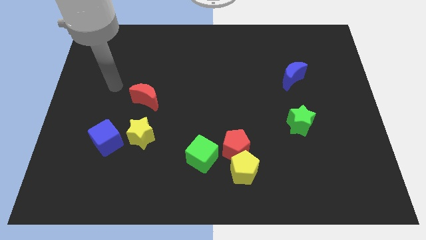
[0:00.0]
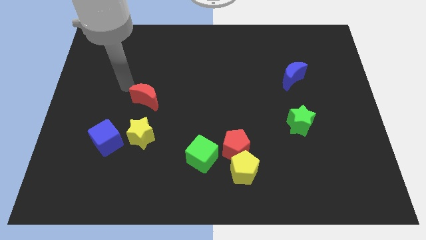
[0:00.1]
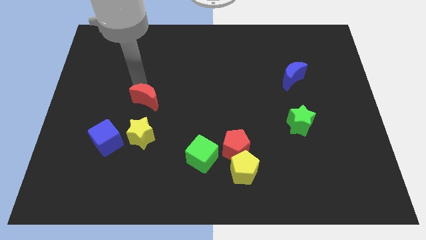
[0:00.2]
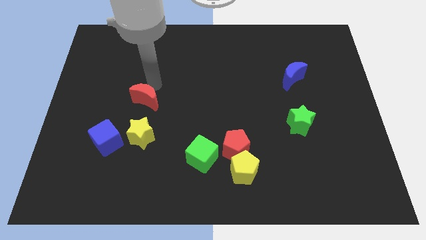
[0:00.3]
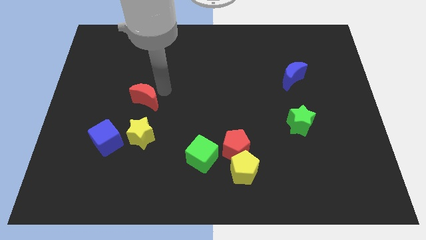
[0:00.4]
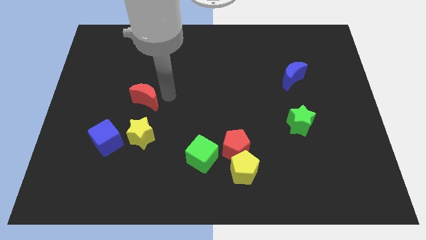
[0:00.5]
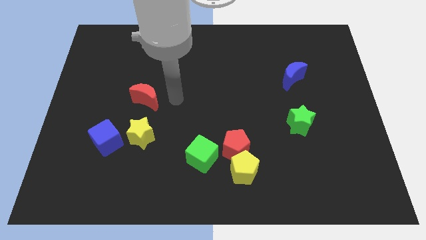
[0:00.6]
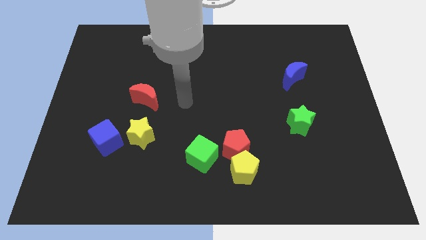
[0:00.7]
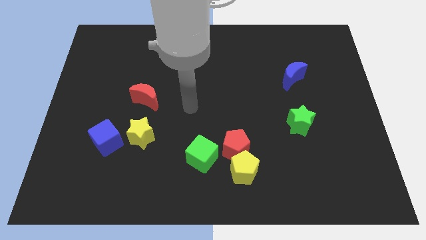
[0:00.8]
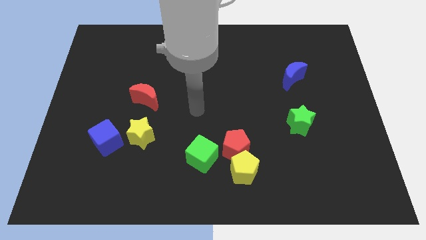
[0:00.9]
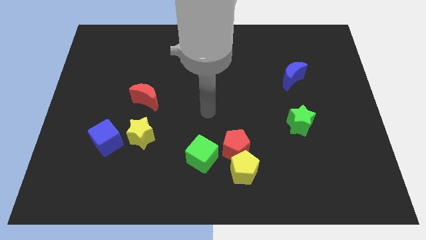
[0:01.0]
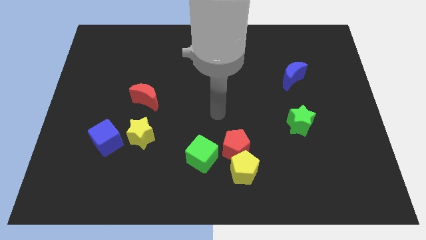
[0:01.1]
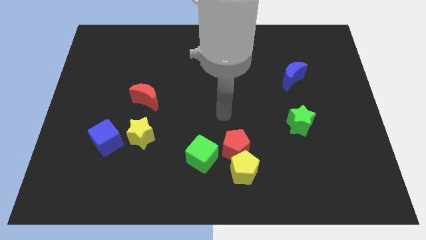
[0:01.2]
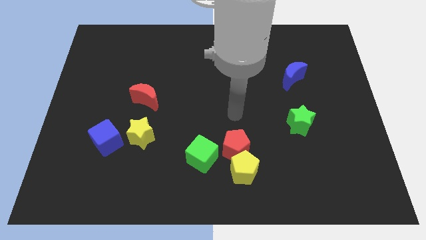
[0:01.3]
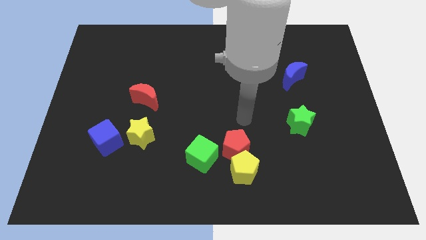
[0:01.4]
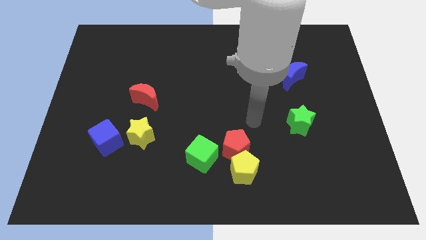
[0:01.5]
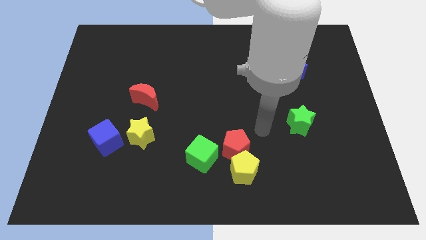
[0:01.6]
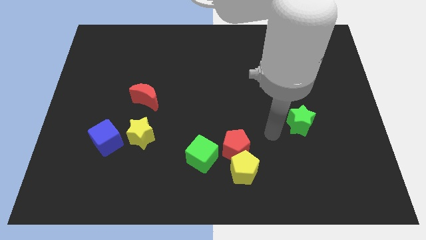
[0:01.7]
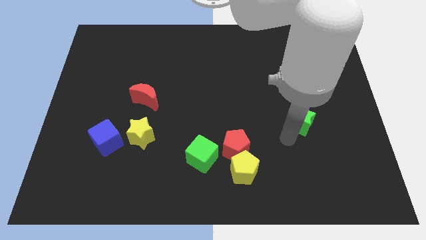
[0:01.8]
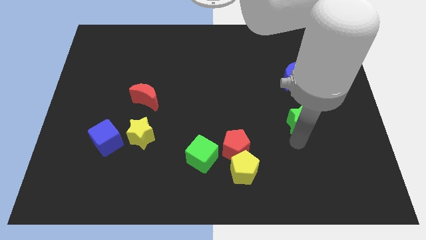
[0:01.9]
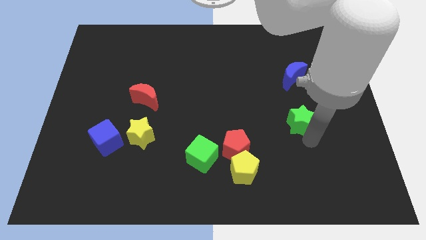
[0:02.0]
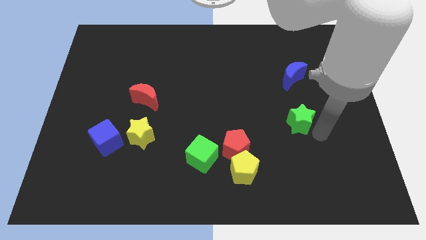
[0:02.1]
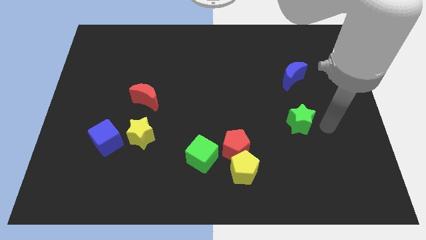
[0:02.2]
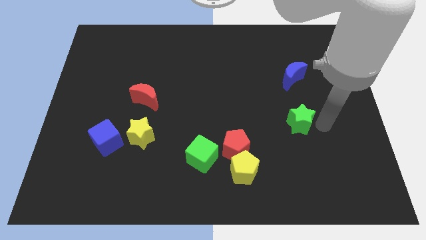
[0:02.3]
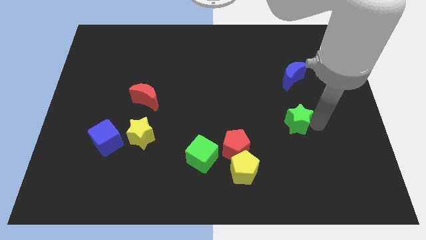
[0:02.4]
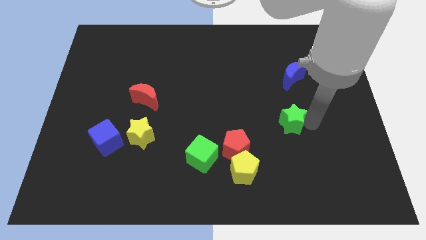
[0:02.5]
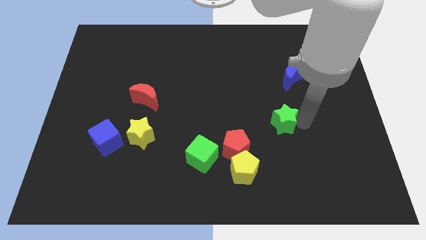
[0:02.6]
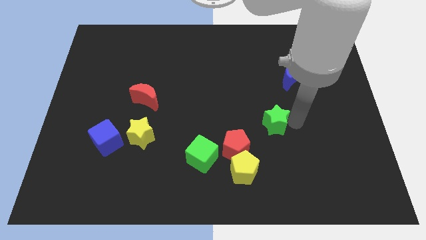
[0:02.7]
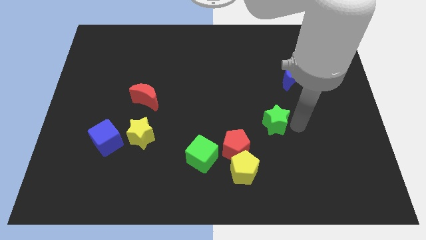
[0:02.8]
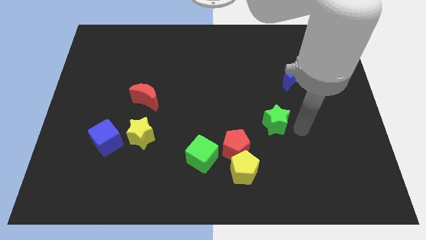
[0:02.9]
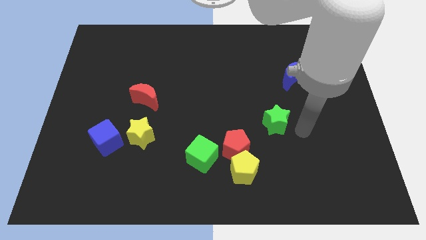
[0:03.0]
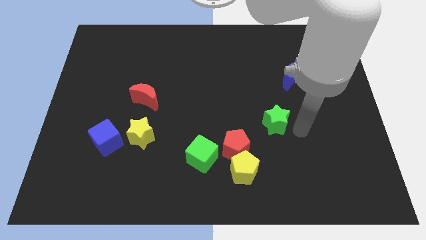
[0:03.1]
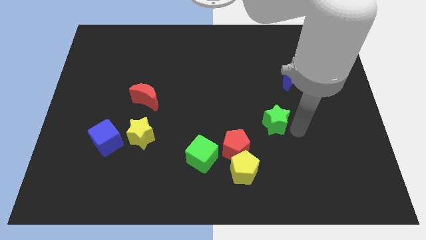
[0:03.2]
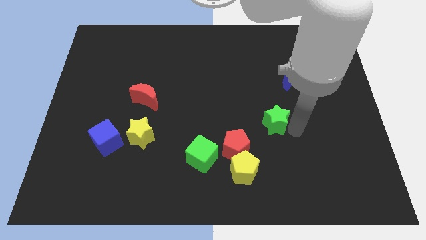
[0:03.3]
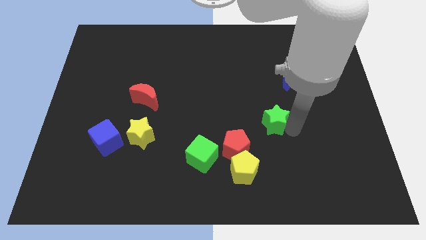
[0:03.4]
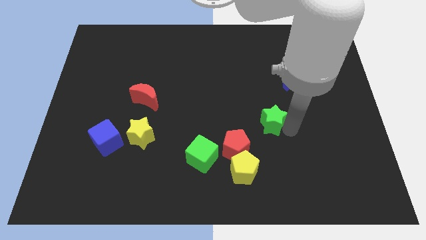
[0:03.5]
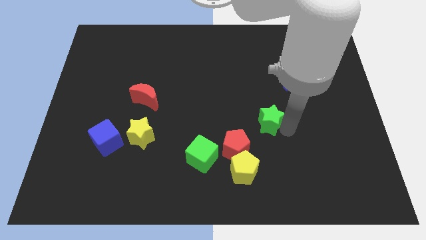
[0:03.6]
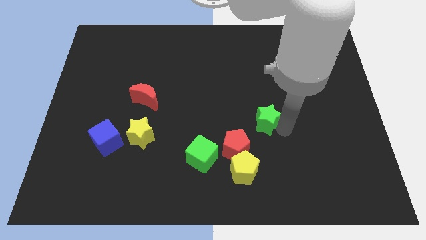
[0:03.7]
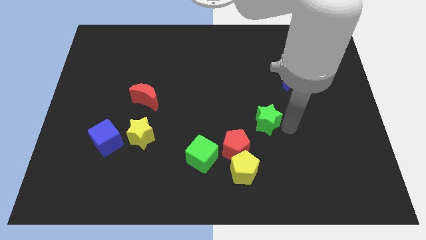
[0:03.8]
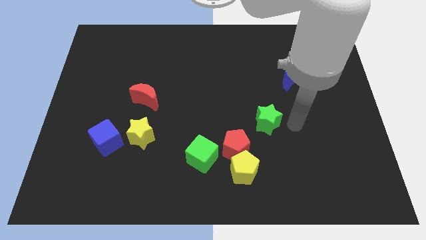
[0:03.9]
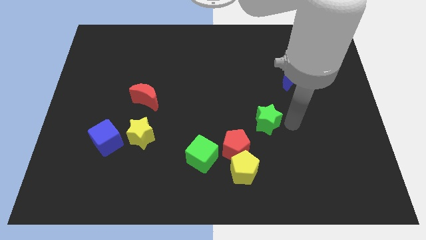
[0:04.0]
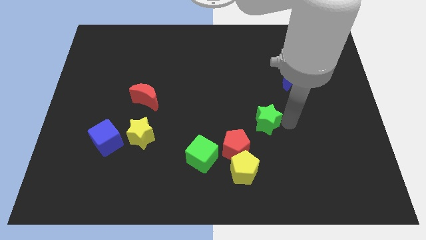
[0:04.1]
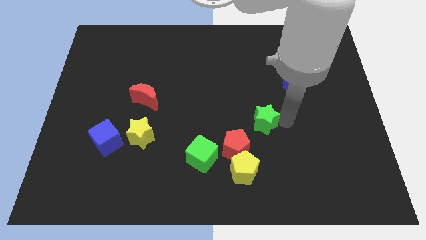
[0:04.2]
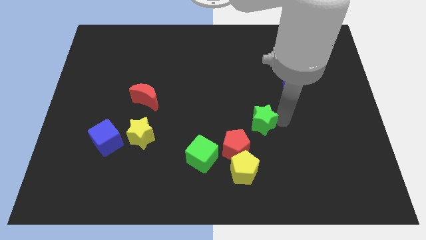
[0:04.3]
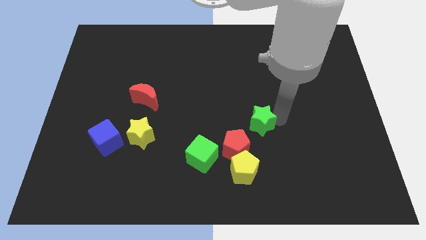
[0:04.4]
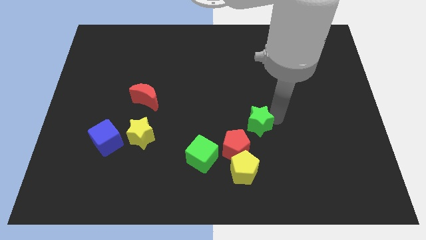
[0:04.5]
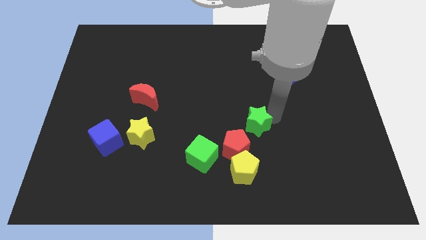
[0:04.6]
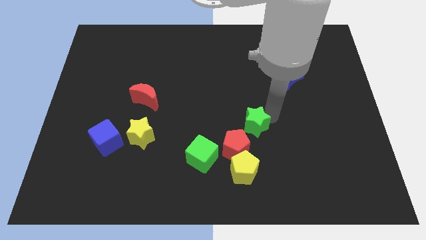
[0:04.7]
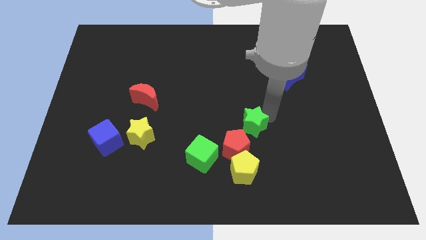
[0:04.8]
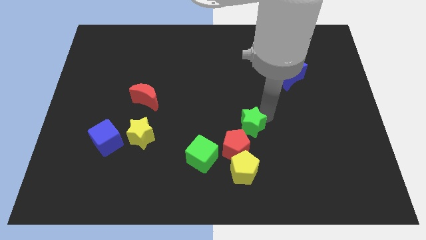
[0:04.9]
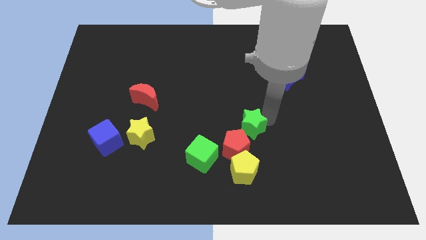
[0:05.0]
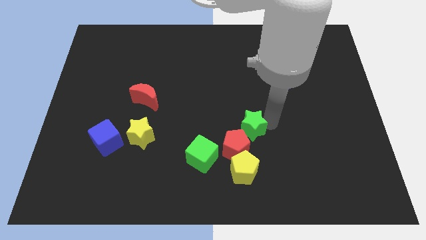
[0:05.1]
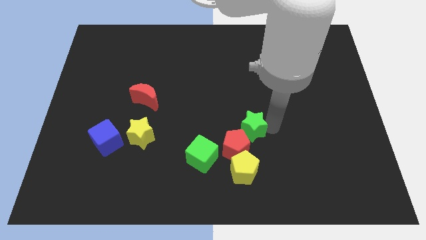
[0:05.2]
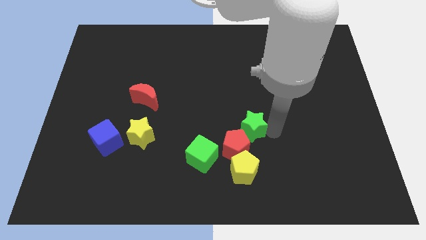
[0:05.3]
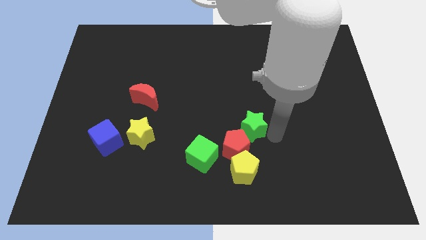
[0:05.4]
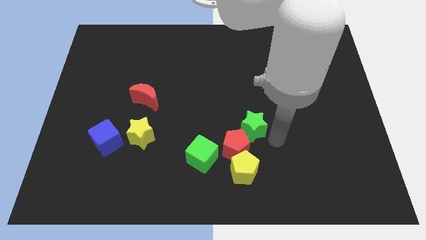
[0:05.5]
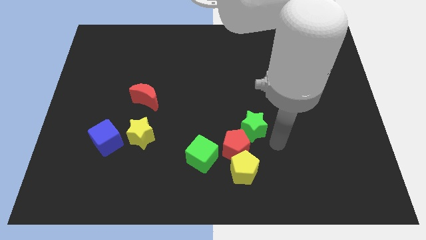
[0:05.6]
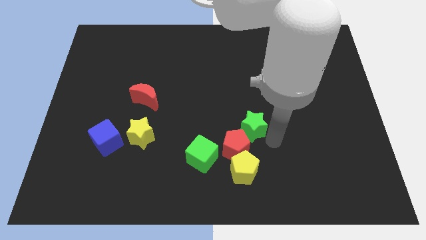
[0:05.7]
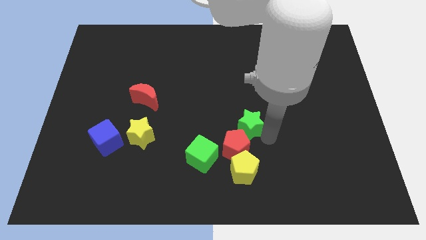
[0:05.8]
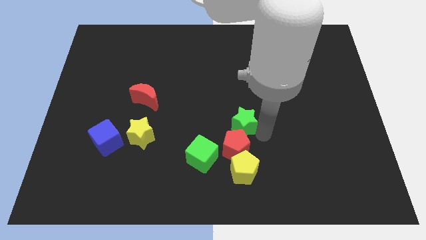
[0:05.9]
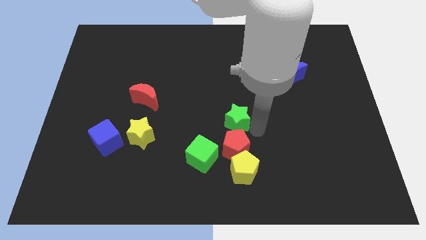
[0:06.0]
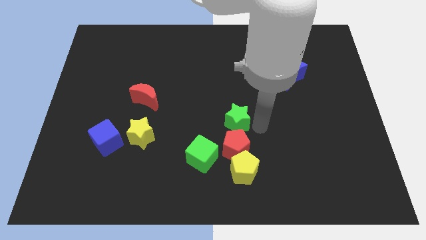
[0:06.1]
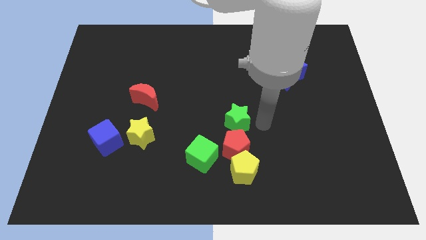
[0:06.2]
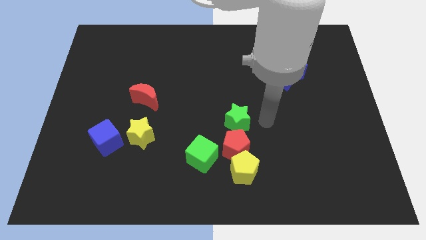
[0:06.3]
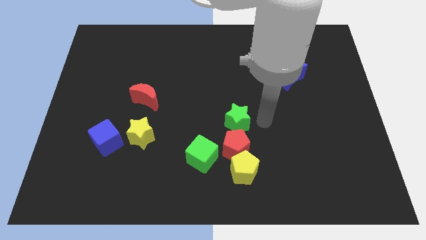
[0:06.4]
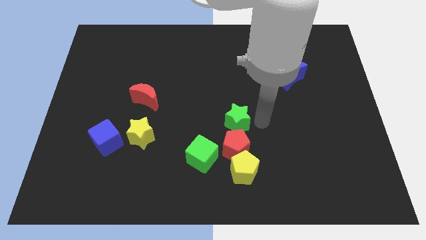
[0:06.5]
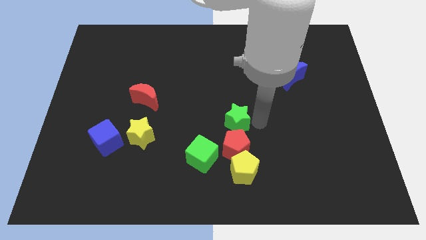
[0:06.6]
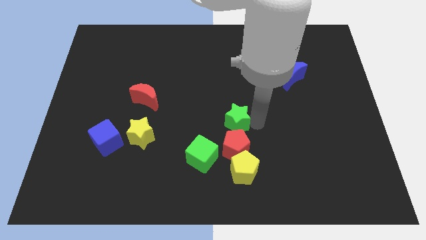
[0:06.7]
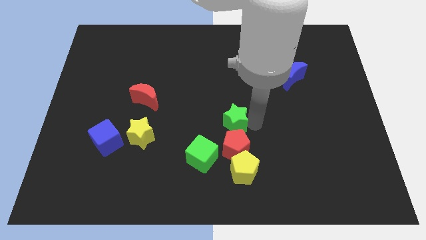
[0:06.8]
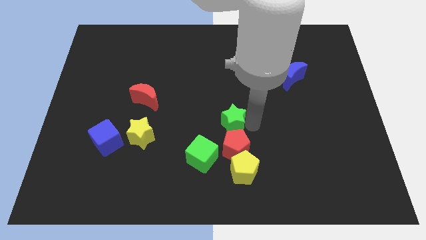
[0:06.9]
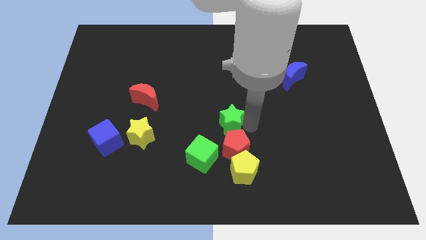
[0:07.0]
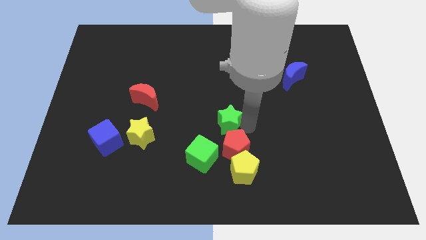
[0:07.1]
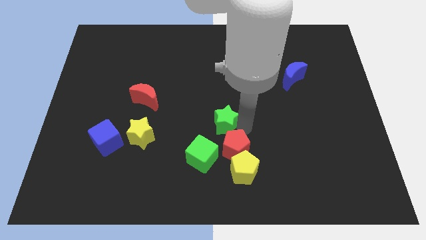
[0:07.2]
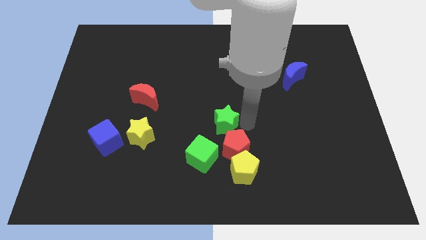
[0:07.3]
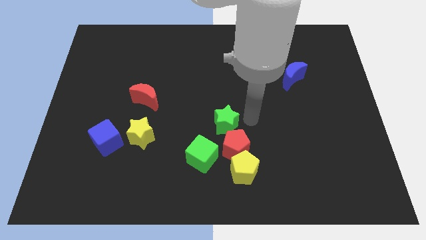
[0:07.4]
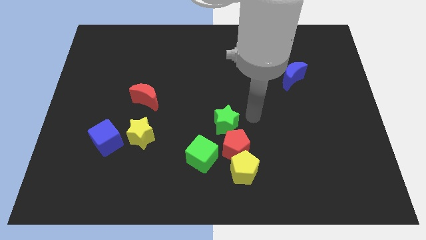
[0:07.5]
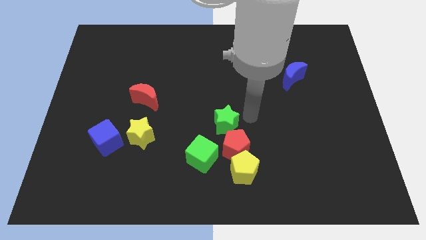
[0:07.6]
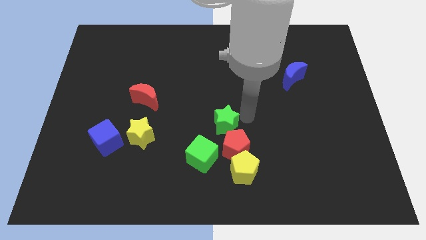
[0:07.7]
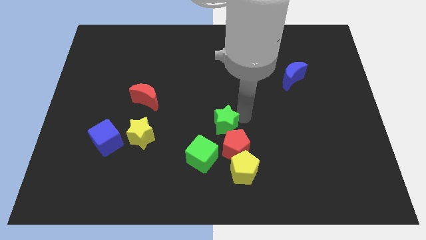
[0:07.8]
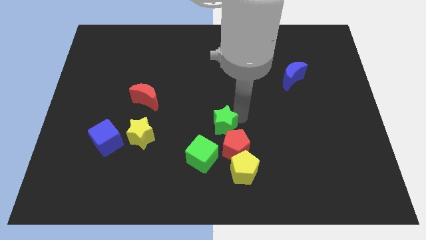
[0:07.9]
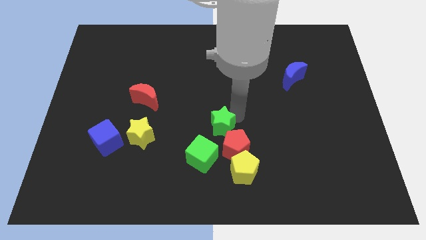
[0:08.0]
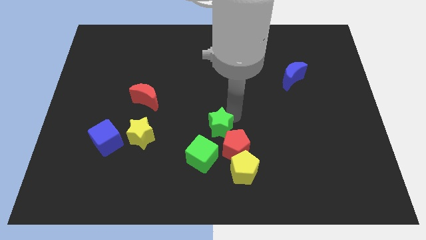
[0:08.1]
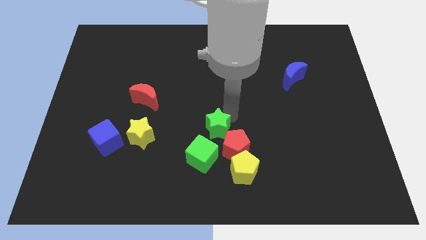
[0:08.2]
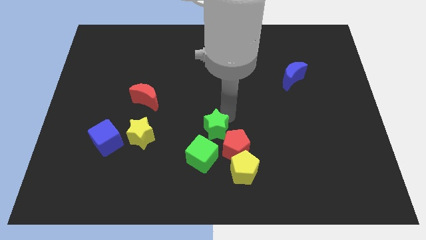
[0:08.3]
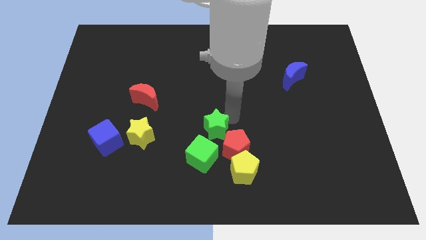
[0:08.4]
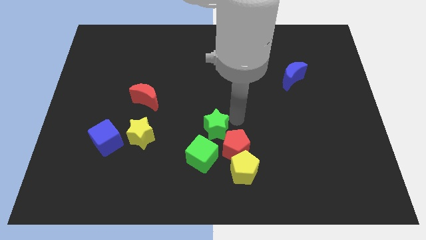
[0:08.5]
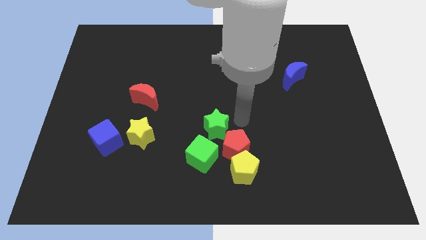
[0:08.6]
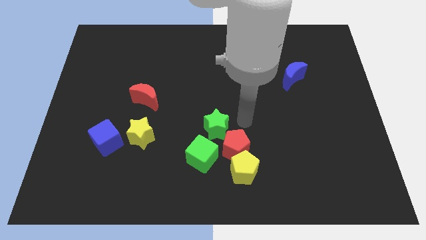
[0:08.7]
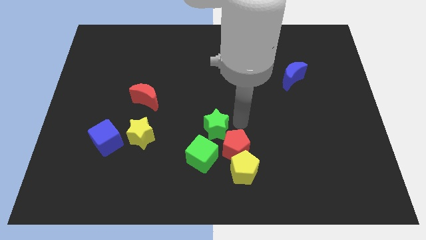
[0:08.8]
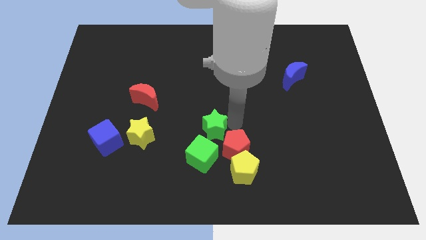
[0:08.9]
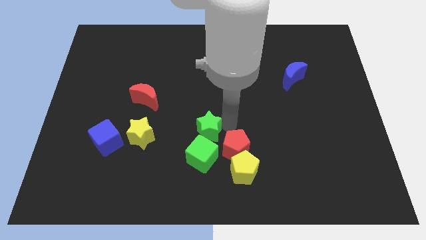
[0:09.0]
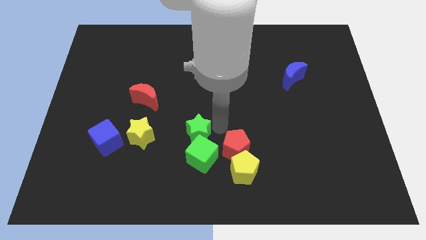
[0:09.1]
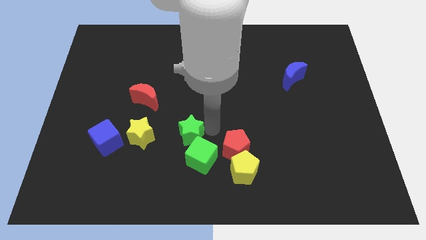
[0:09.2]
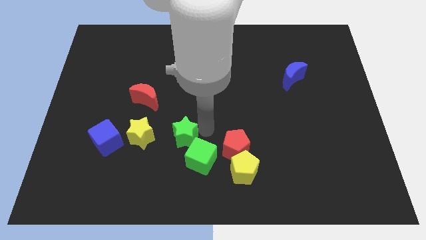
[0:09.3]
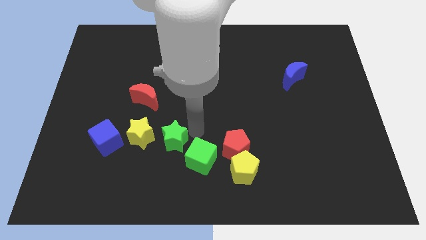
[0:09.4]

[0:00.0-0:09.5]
slide the green star to the left side of the green cube
